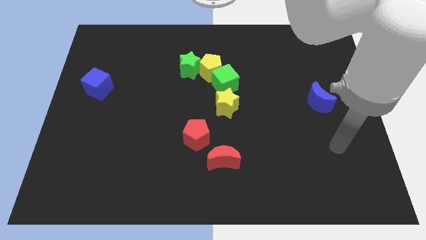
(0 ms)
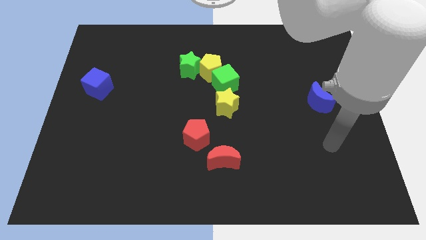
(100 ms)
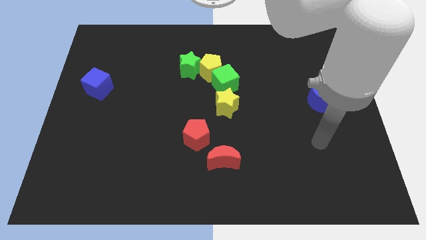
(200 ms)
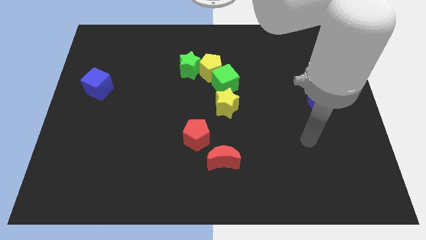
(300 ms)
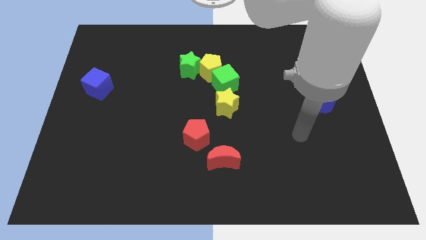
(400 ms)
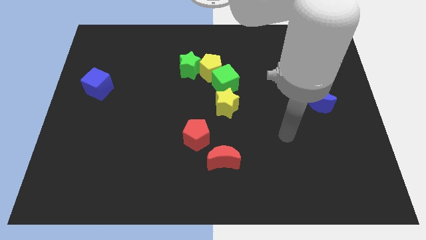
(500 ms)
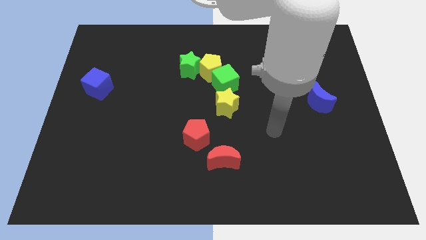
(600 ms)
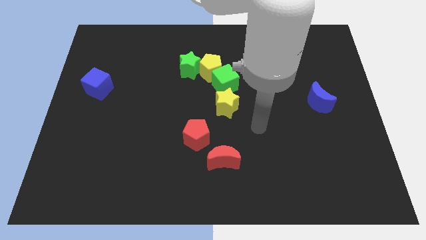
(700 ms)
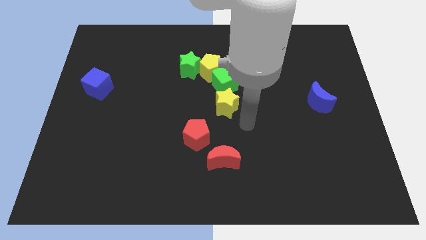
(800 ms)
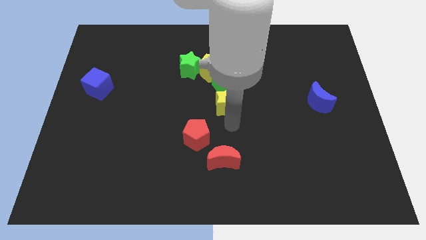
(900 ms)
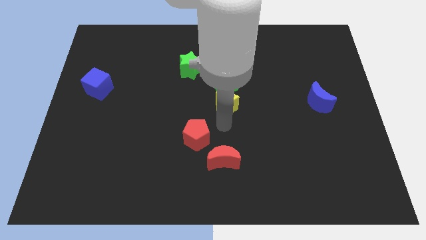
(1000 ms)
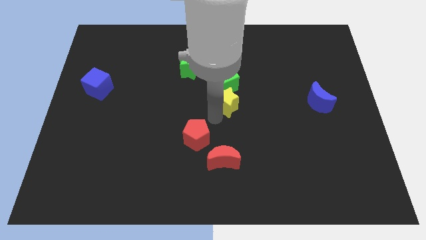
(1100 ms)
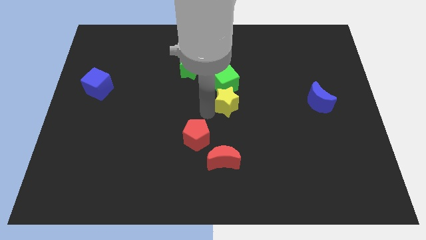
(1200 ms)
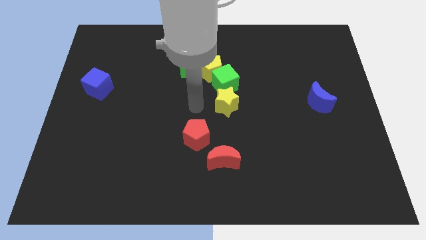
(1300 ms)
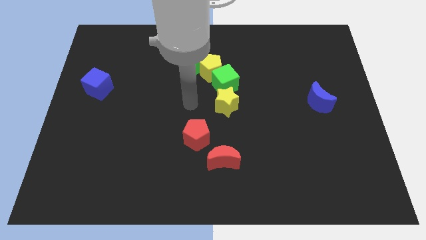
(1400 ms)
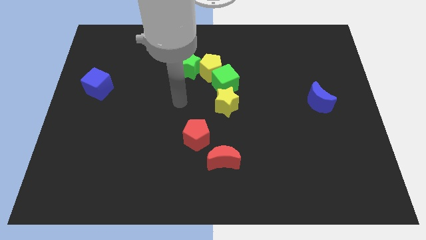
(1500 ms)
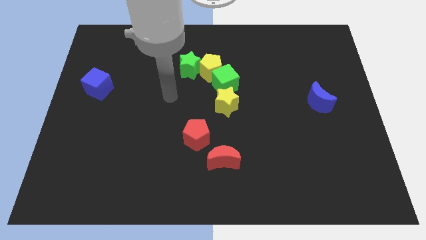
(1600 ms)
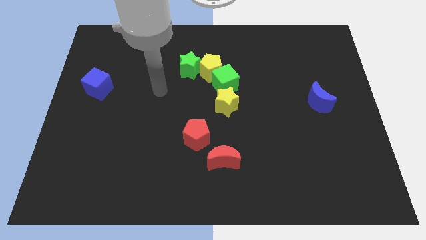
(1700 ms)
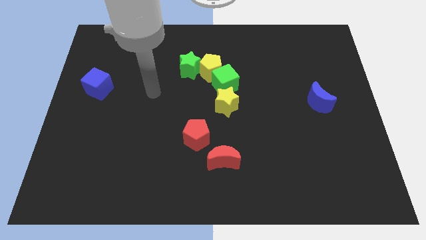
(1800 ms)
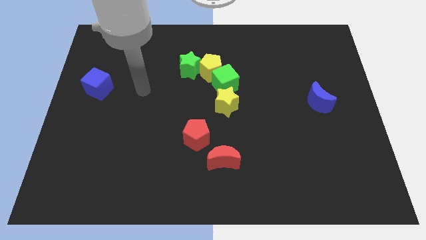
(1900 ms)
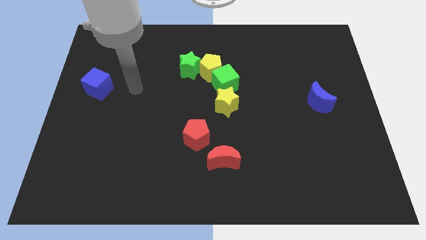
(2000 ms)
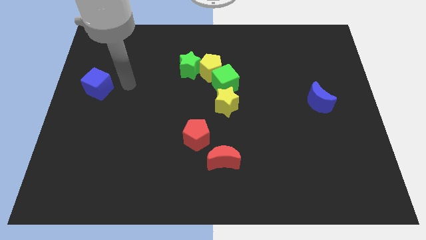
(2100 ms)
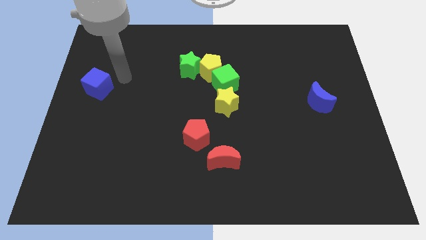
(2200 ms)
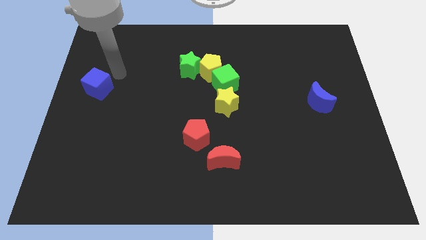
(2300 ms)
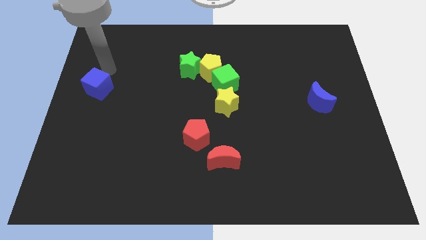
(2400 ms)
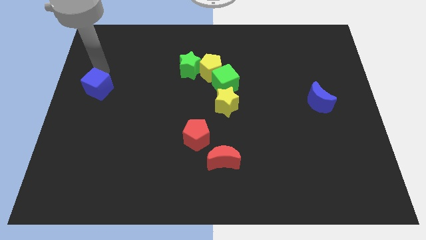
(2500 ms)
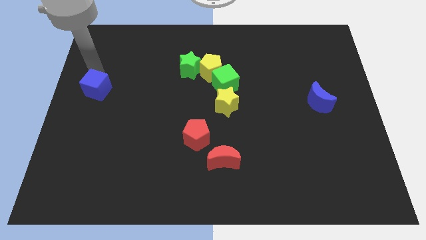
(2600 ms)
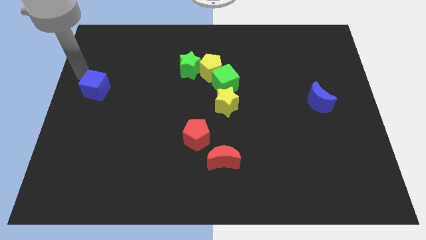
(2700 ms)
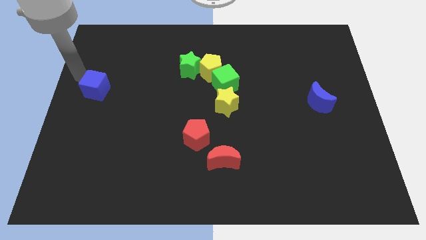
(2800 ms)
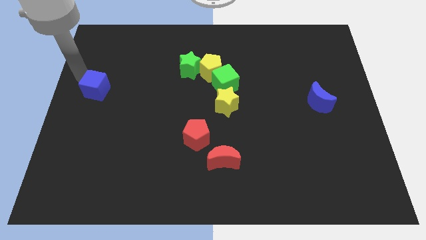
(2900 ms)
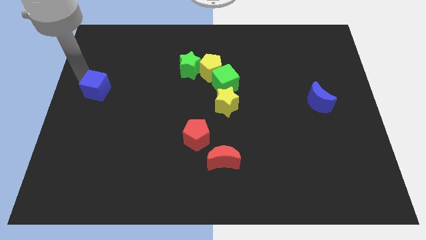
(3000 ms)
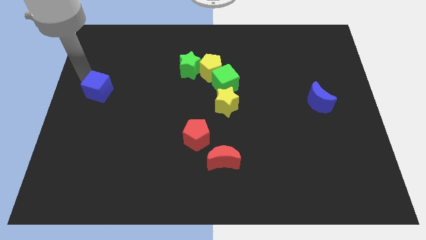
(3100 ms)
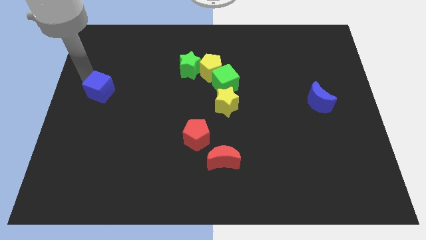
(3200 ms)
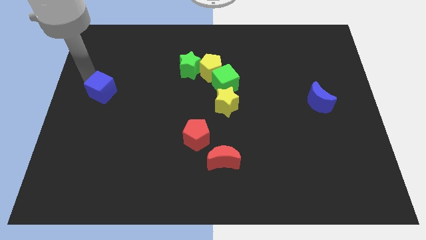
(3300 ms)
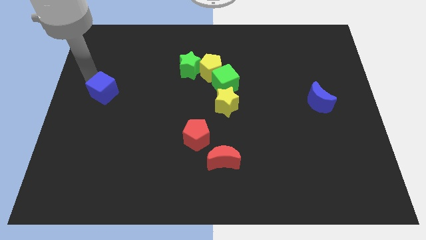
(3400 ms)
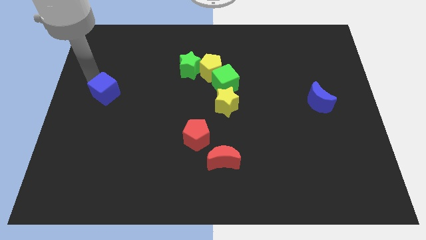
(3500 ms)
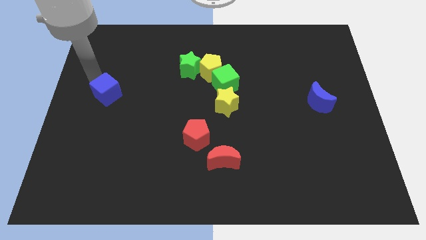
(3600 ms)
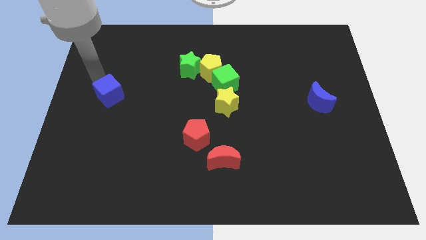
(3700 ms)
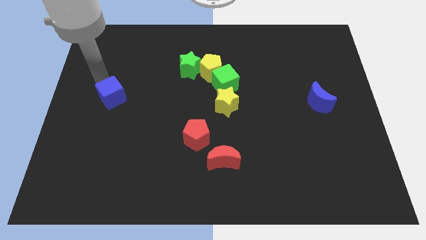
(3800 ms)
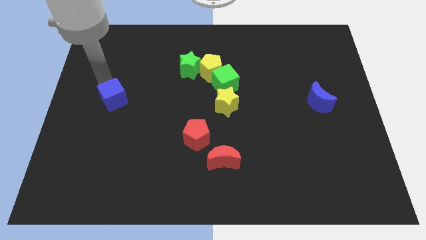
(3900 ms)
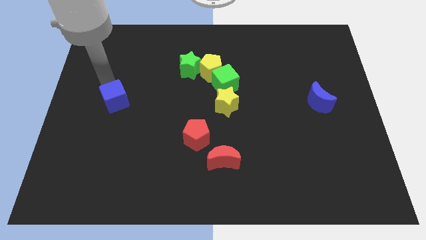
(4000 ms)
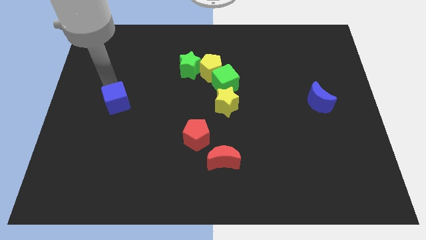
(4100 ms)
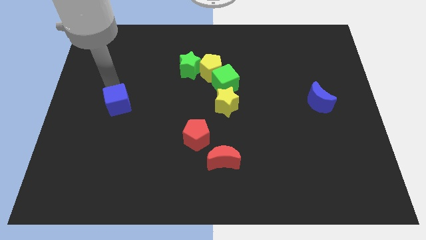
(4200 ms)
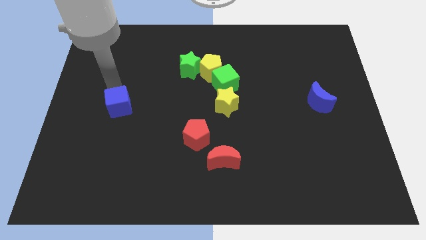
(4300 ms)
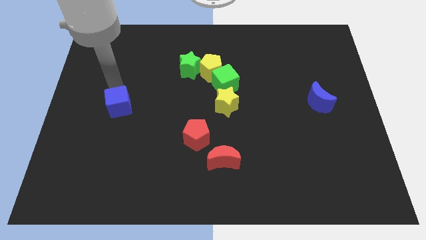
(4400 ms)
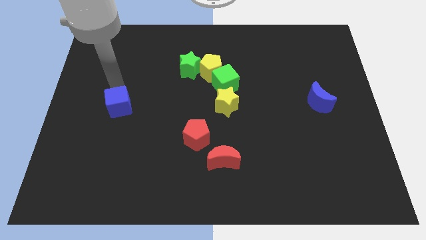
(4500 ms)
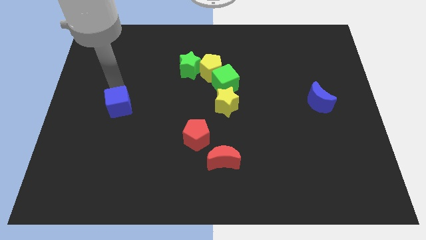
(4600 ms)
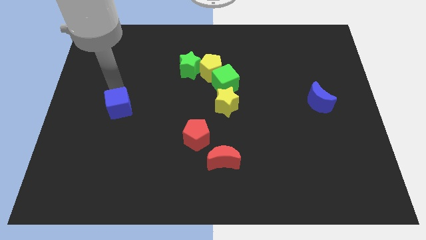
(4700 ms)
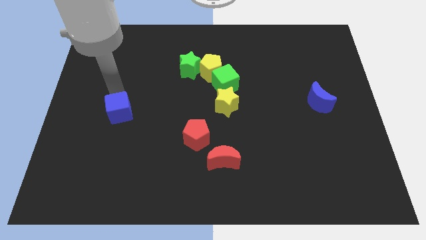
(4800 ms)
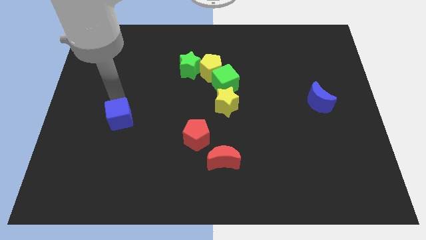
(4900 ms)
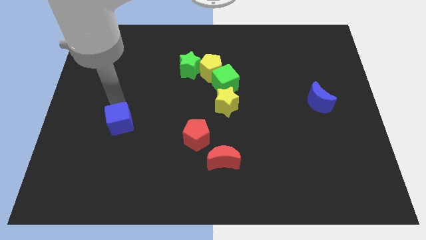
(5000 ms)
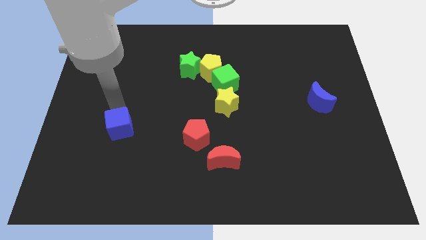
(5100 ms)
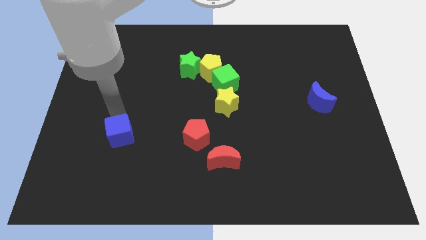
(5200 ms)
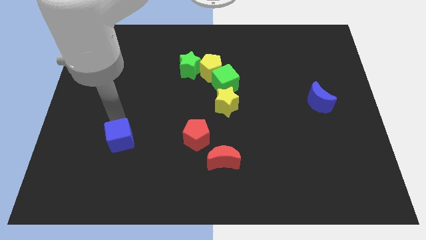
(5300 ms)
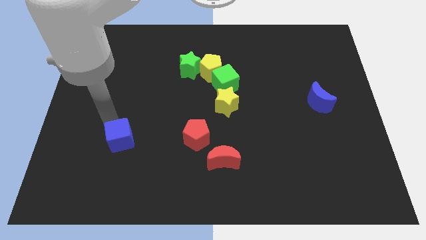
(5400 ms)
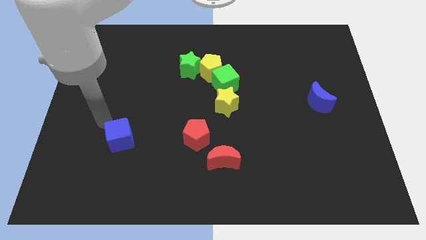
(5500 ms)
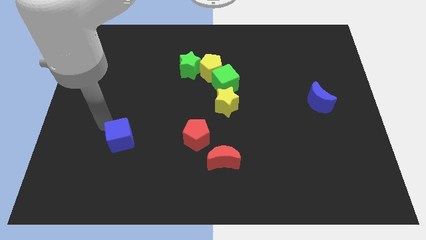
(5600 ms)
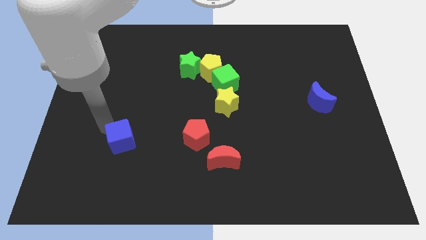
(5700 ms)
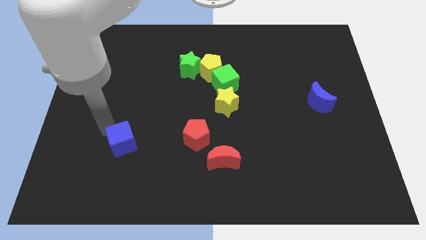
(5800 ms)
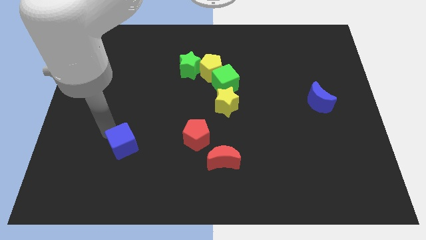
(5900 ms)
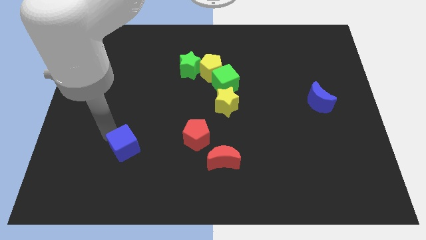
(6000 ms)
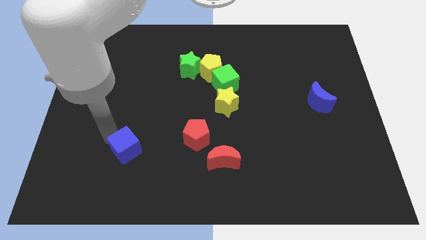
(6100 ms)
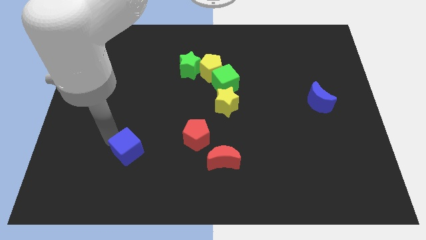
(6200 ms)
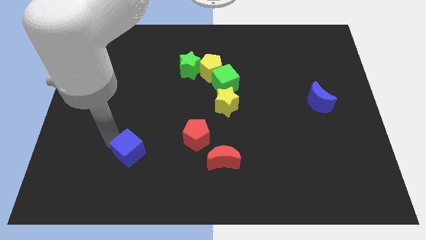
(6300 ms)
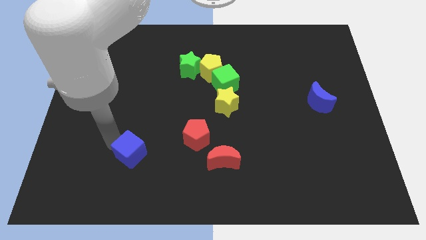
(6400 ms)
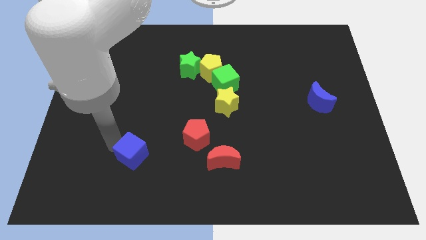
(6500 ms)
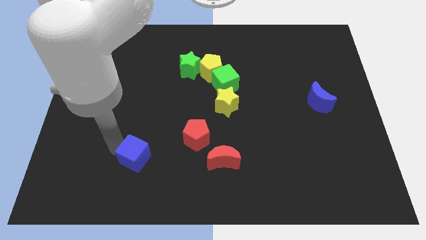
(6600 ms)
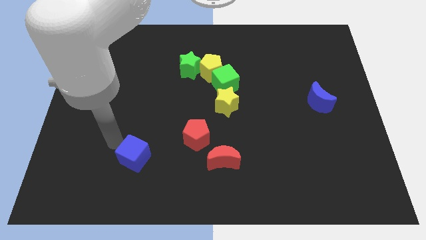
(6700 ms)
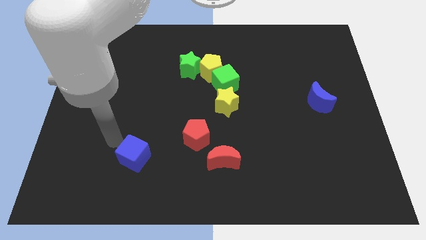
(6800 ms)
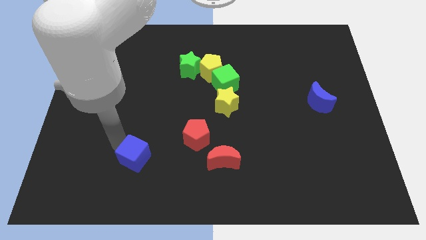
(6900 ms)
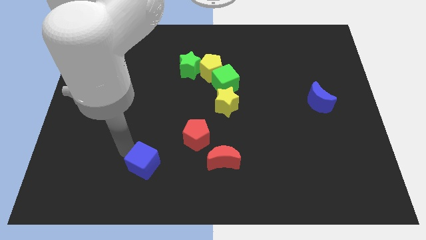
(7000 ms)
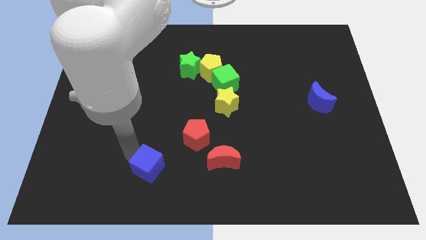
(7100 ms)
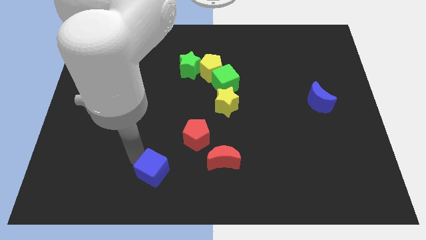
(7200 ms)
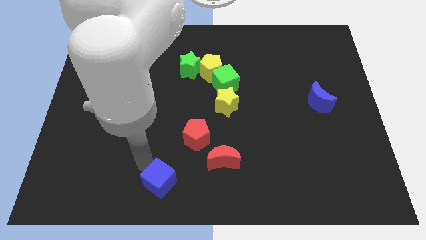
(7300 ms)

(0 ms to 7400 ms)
slide the blue cube to the bottom side

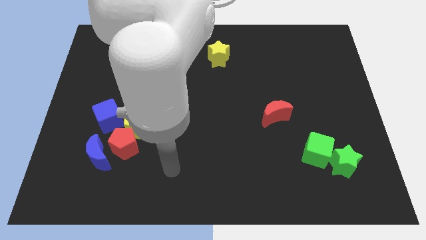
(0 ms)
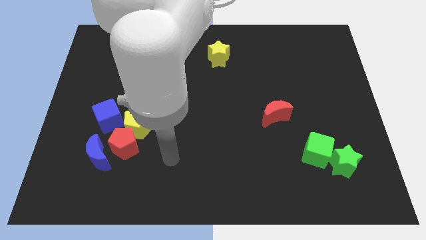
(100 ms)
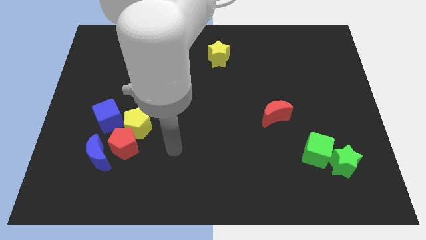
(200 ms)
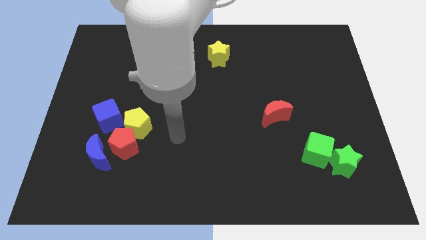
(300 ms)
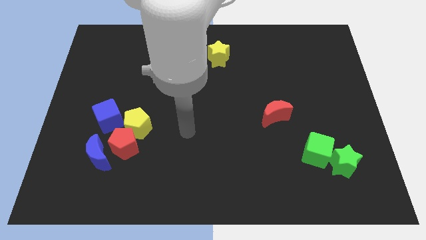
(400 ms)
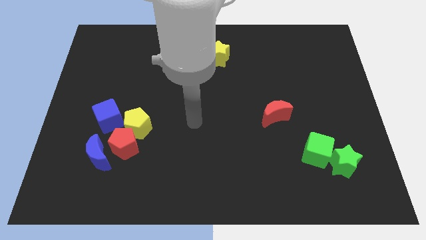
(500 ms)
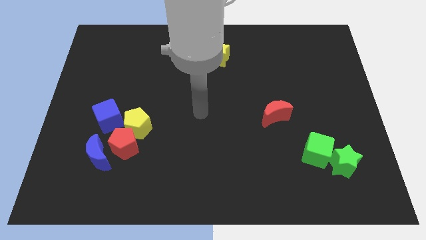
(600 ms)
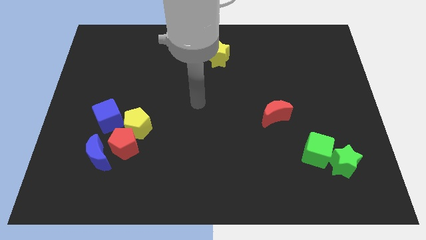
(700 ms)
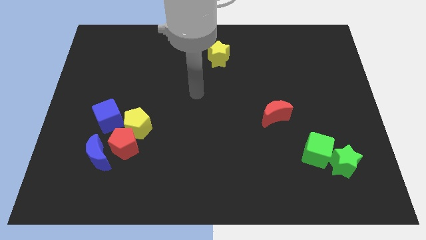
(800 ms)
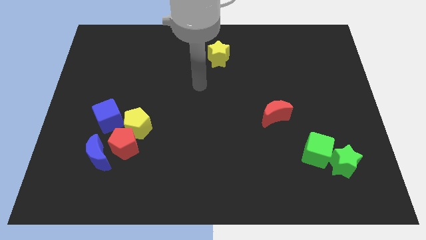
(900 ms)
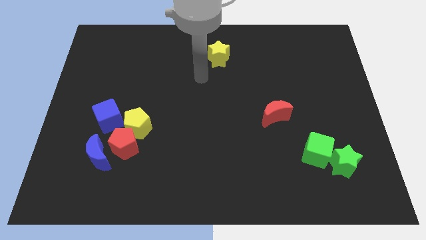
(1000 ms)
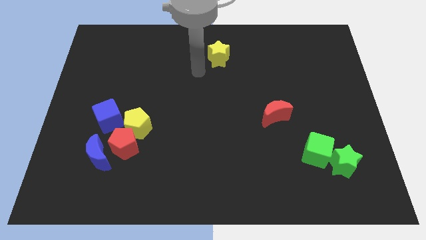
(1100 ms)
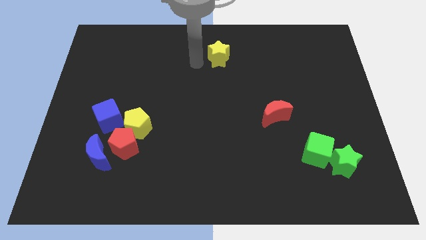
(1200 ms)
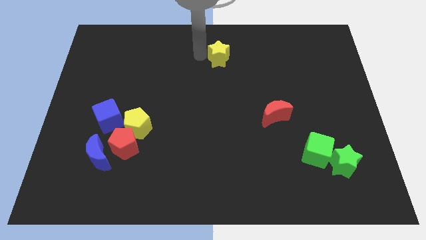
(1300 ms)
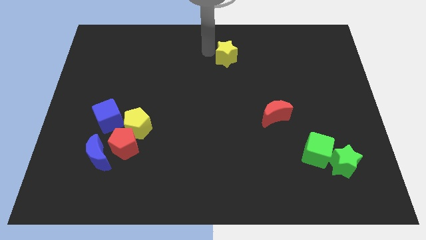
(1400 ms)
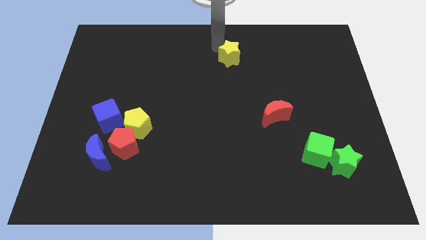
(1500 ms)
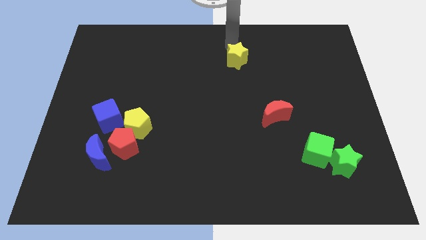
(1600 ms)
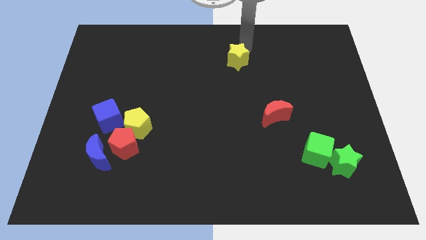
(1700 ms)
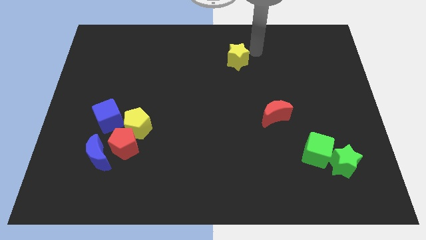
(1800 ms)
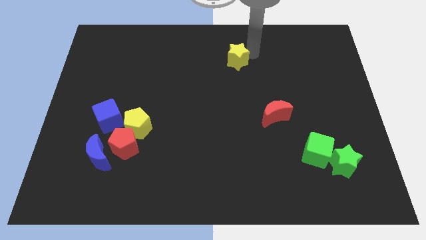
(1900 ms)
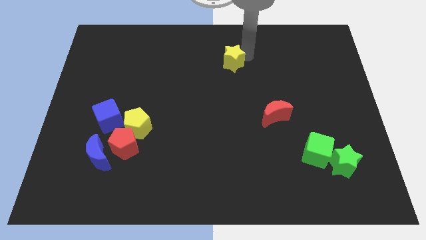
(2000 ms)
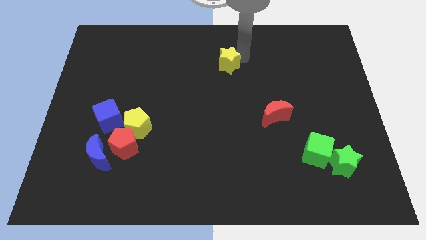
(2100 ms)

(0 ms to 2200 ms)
slide the yellow star to the center of the board
